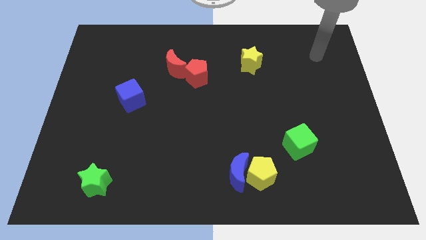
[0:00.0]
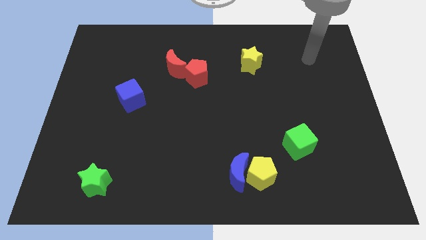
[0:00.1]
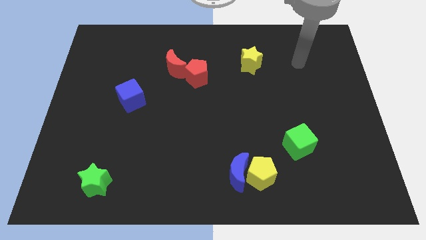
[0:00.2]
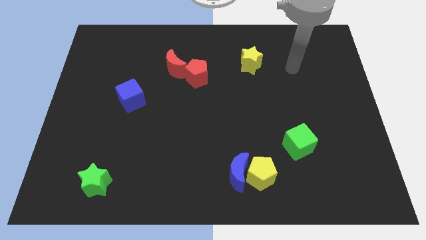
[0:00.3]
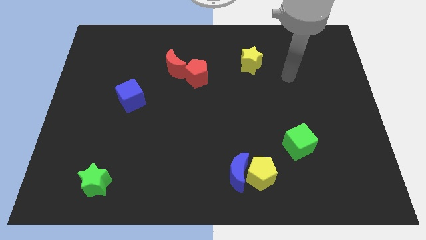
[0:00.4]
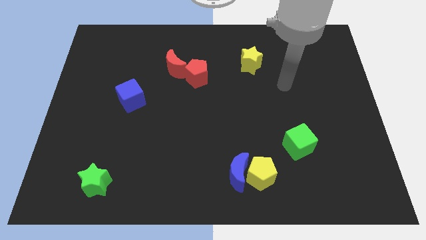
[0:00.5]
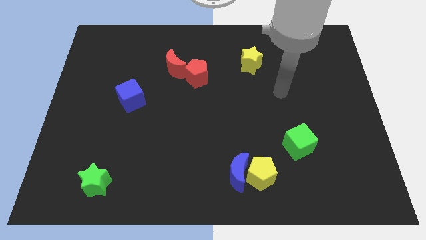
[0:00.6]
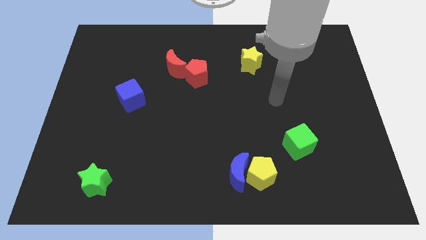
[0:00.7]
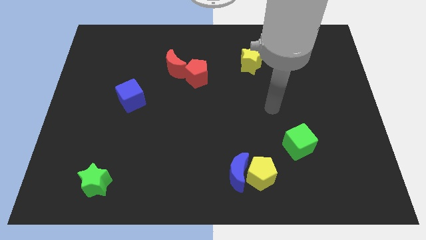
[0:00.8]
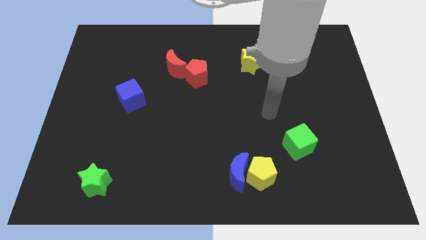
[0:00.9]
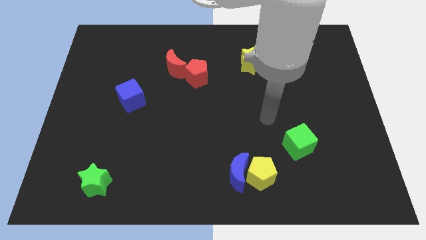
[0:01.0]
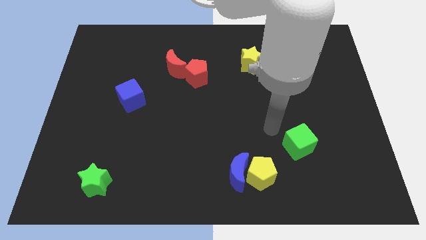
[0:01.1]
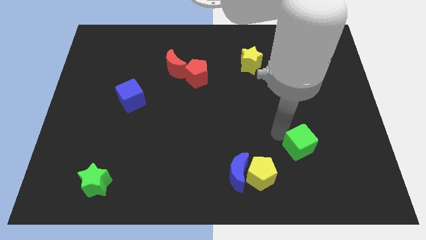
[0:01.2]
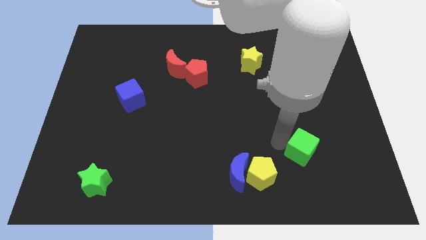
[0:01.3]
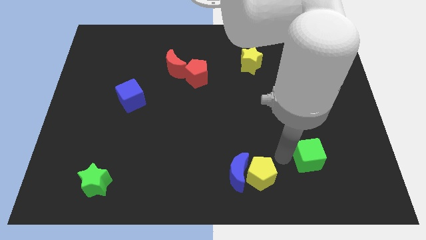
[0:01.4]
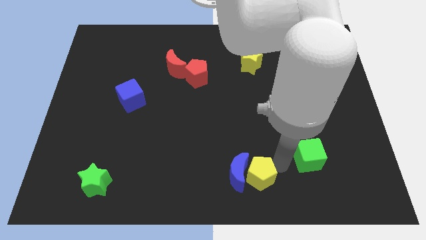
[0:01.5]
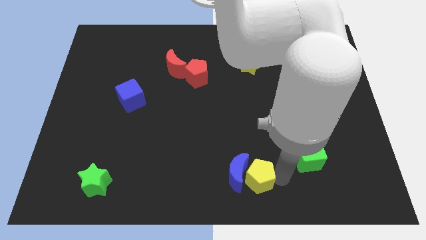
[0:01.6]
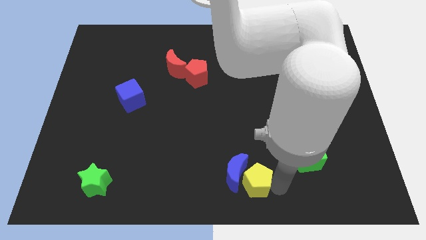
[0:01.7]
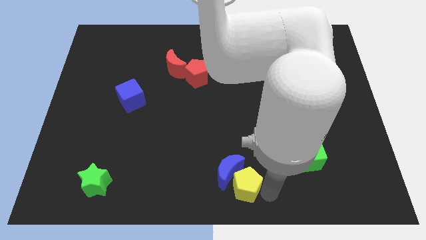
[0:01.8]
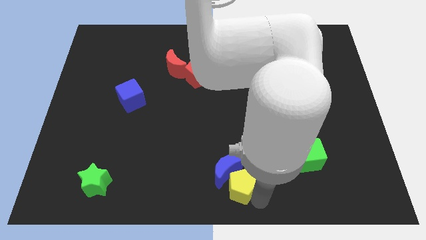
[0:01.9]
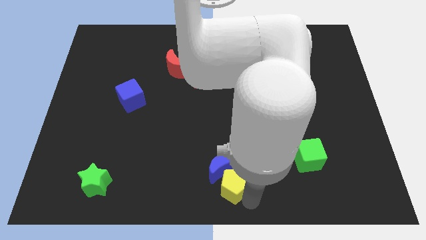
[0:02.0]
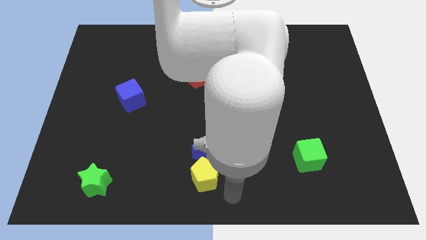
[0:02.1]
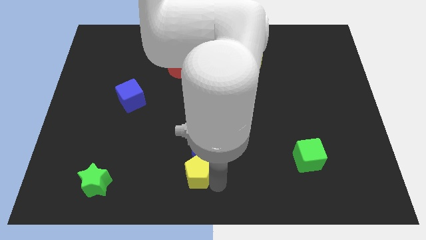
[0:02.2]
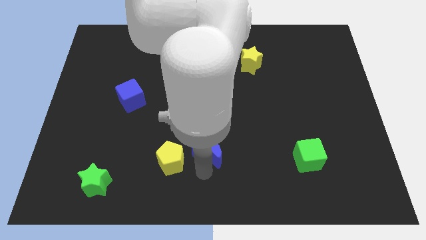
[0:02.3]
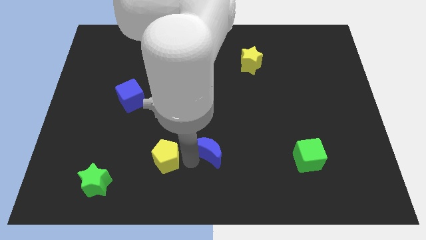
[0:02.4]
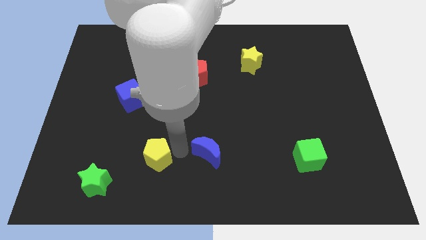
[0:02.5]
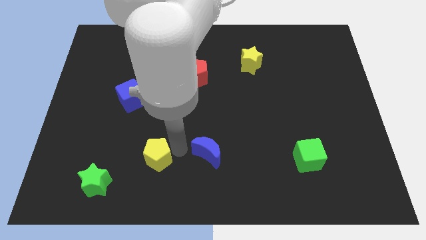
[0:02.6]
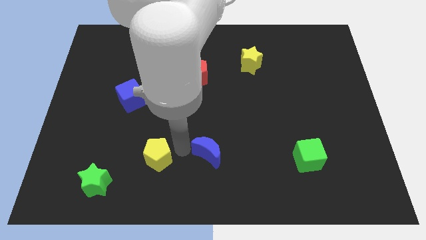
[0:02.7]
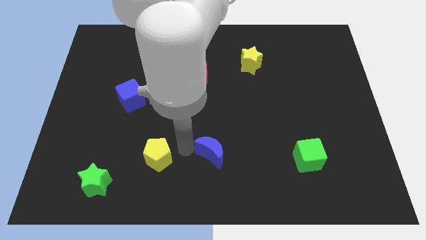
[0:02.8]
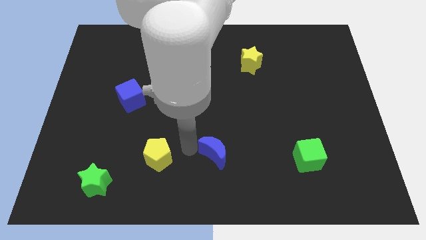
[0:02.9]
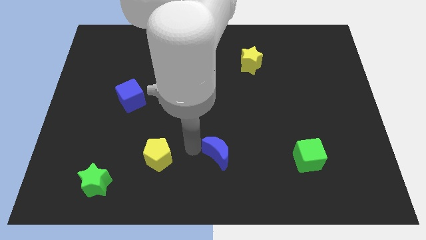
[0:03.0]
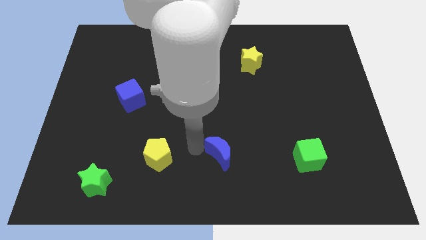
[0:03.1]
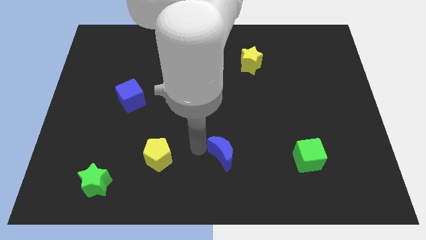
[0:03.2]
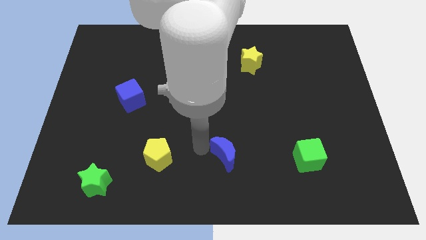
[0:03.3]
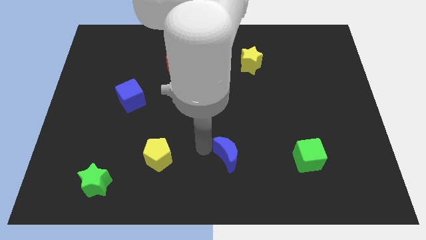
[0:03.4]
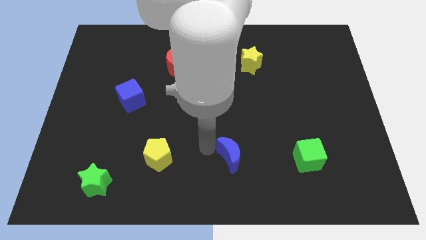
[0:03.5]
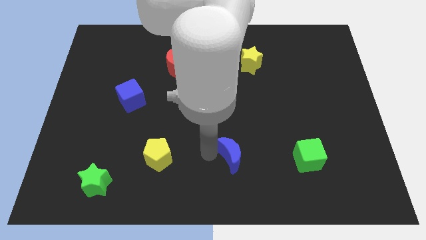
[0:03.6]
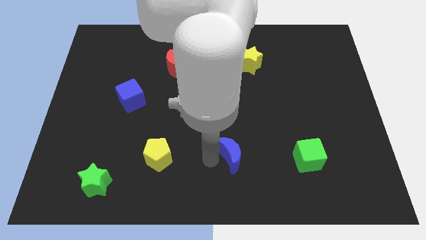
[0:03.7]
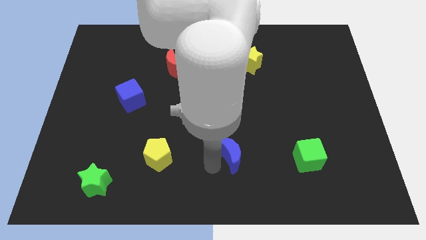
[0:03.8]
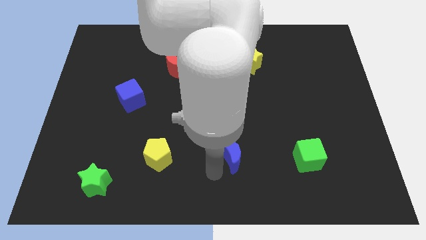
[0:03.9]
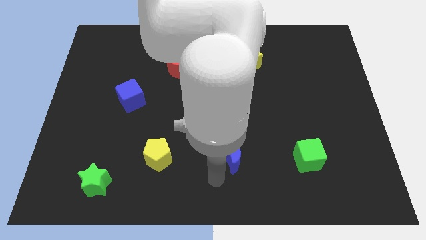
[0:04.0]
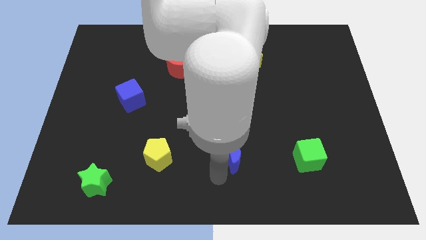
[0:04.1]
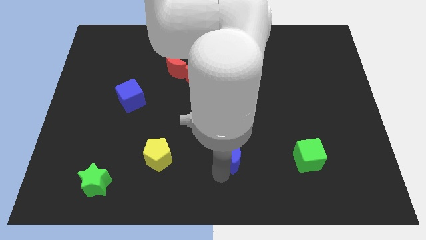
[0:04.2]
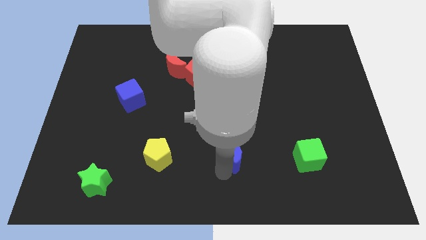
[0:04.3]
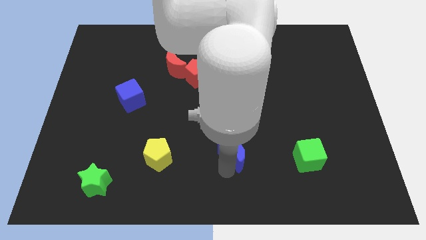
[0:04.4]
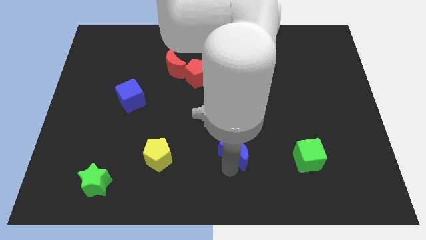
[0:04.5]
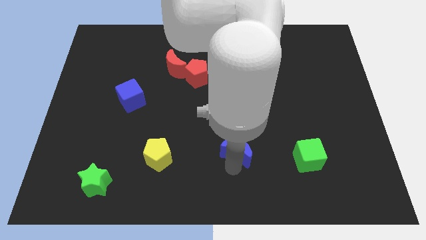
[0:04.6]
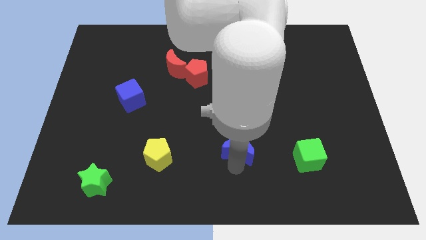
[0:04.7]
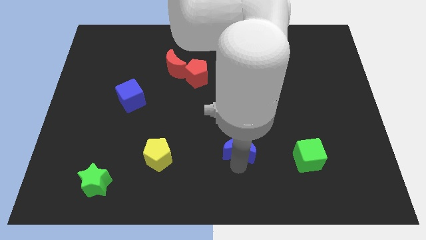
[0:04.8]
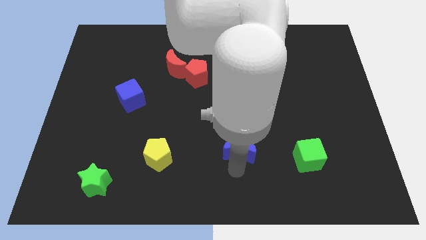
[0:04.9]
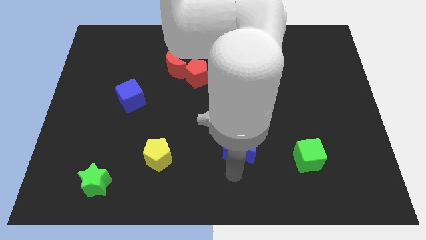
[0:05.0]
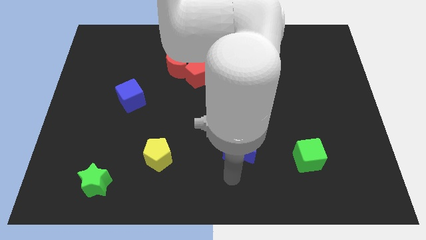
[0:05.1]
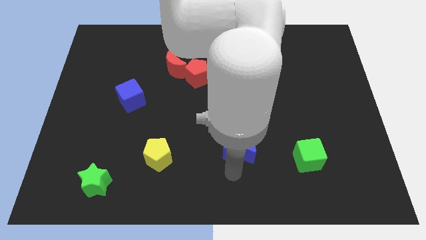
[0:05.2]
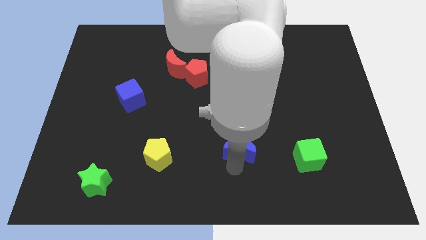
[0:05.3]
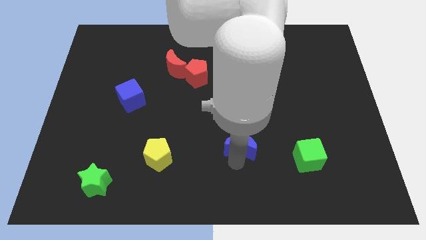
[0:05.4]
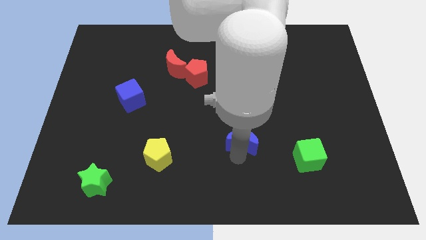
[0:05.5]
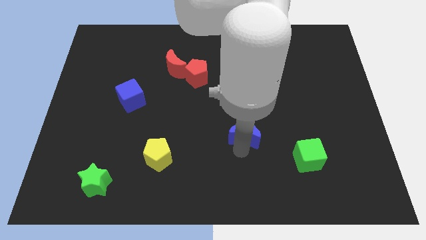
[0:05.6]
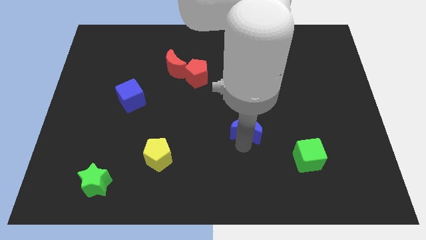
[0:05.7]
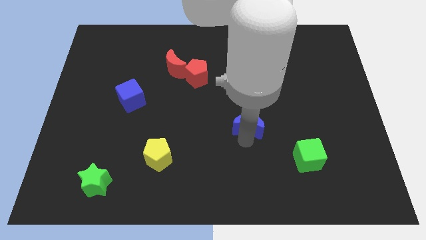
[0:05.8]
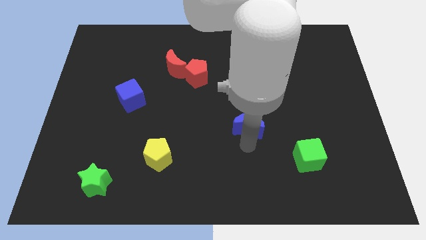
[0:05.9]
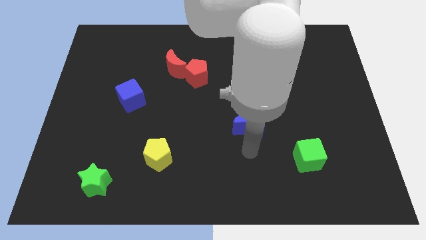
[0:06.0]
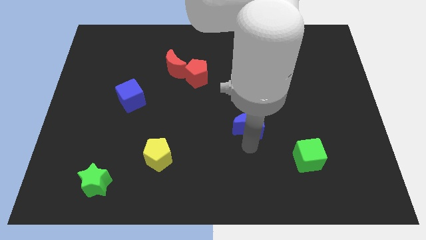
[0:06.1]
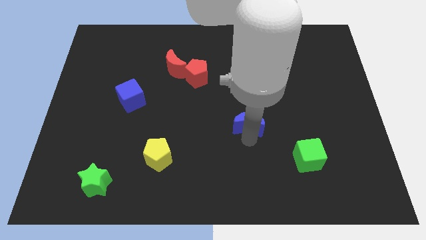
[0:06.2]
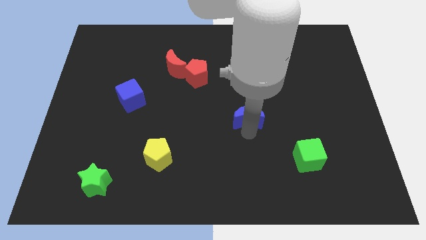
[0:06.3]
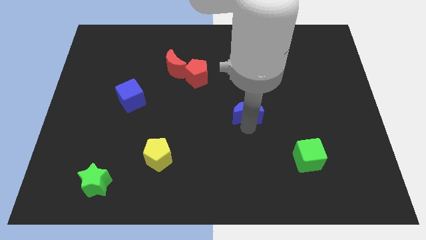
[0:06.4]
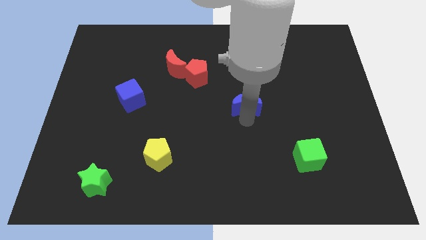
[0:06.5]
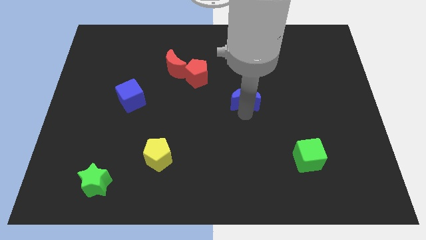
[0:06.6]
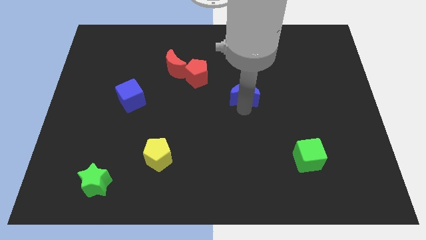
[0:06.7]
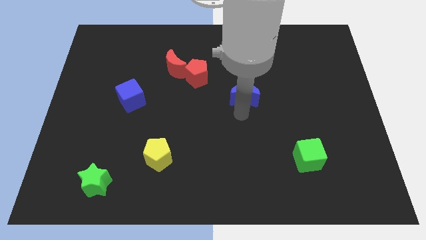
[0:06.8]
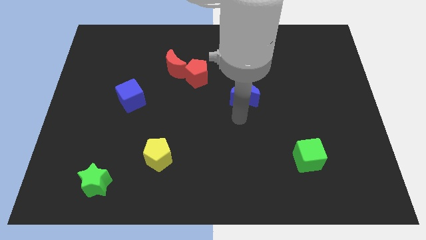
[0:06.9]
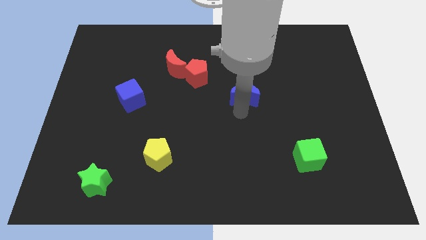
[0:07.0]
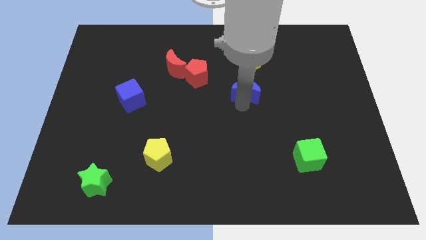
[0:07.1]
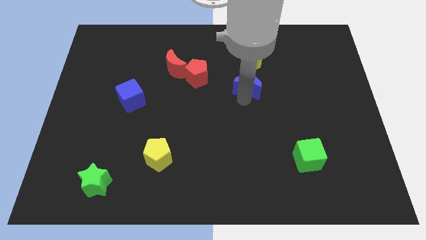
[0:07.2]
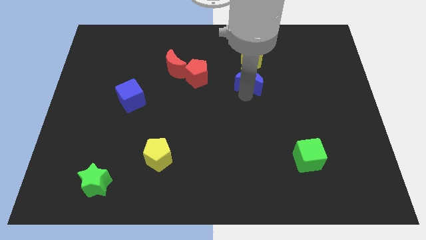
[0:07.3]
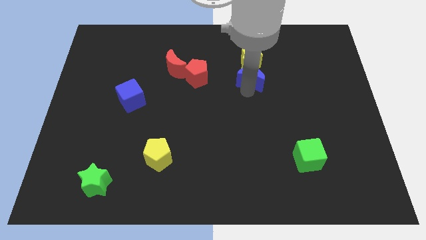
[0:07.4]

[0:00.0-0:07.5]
slide the blue moon towards the yellow star
